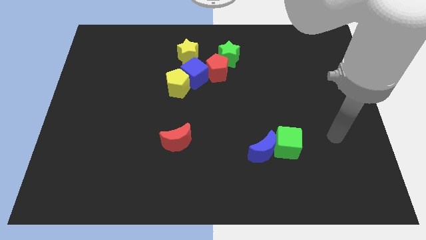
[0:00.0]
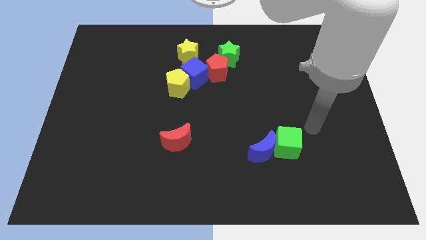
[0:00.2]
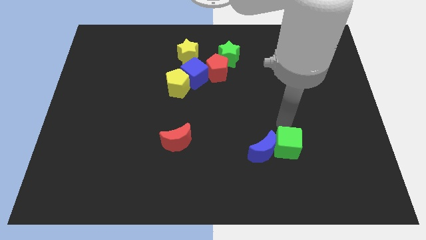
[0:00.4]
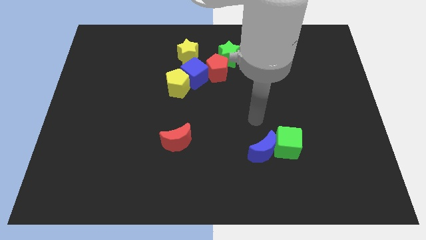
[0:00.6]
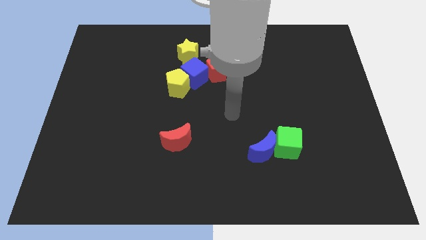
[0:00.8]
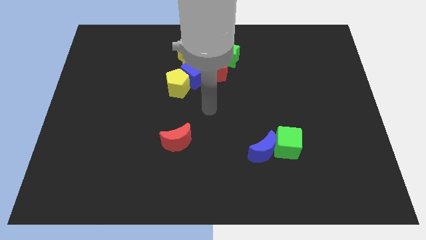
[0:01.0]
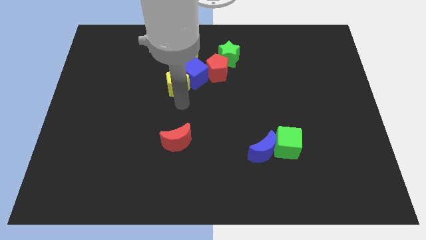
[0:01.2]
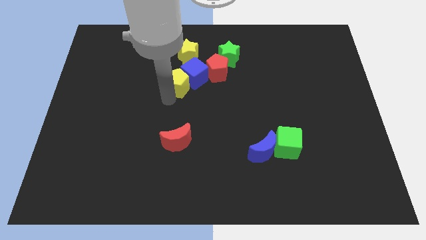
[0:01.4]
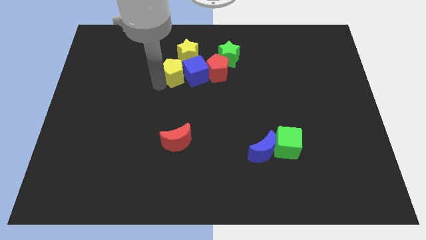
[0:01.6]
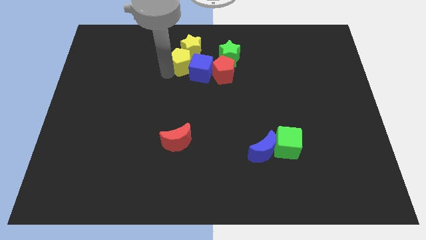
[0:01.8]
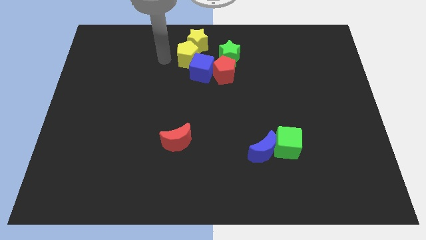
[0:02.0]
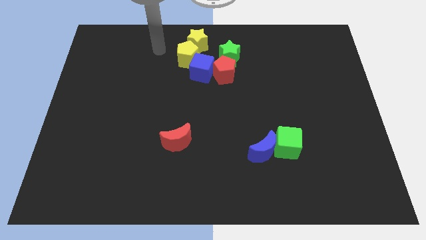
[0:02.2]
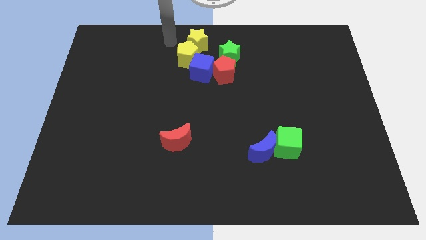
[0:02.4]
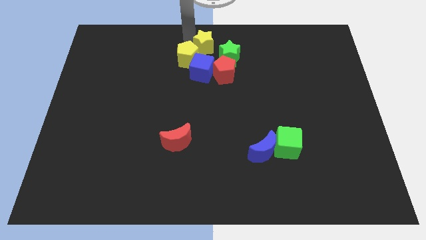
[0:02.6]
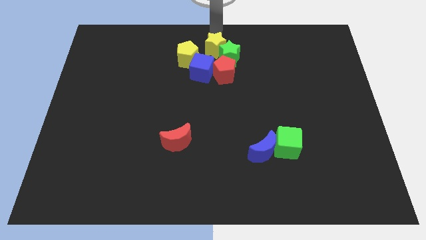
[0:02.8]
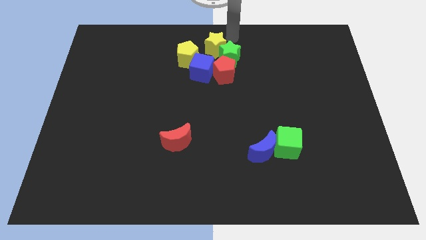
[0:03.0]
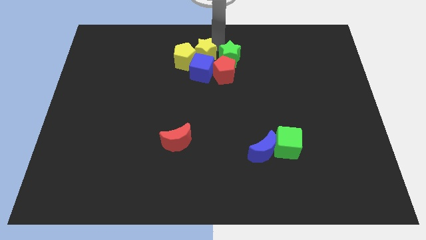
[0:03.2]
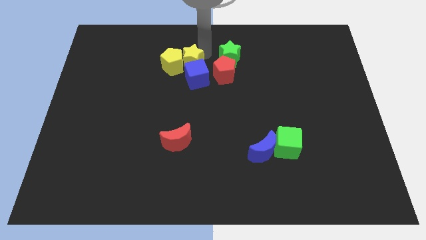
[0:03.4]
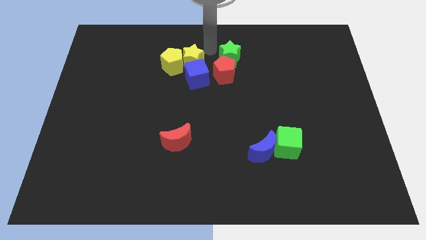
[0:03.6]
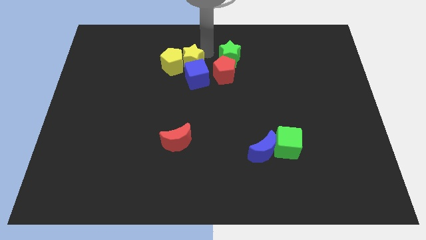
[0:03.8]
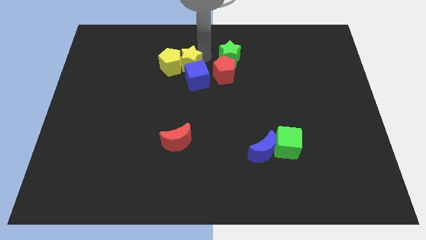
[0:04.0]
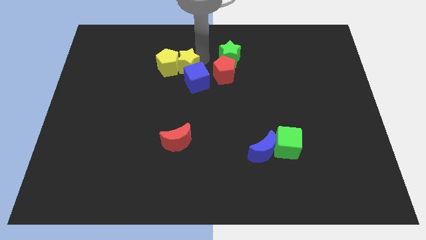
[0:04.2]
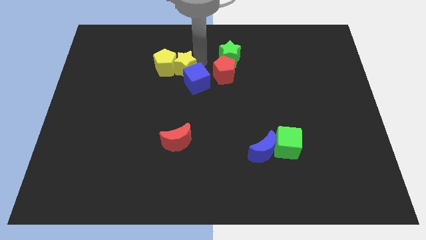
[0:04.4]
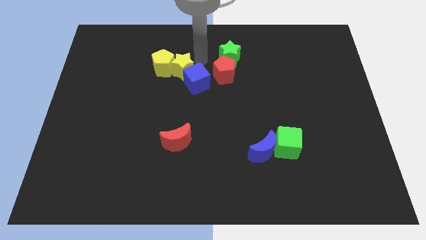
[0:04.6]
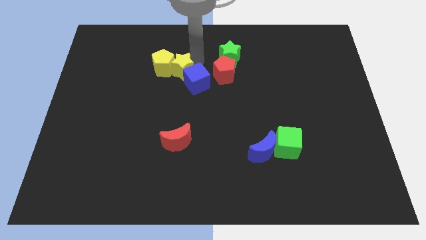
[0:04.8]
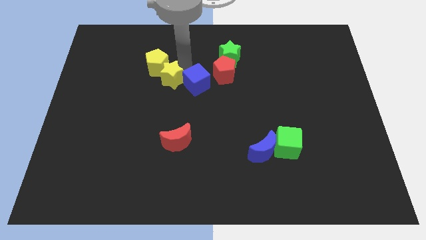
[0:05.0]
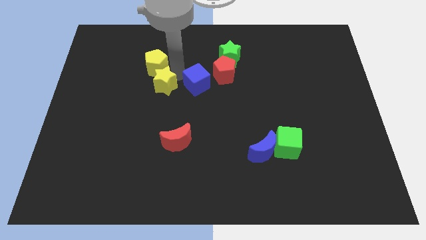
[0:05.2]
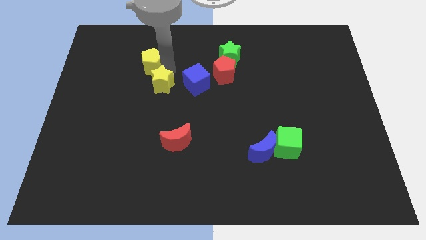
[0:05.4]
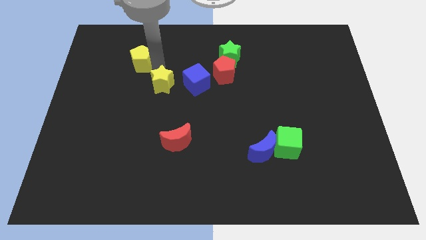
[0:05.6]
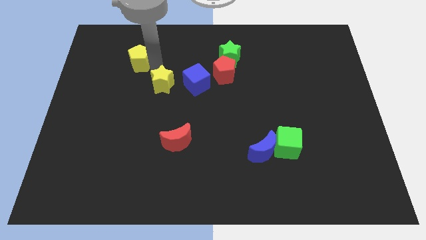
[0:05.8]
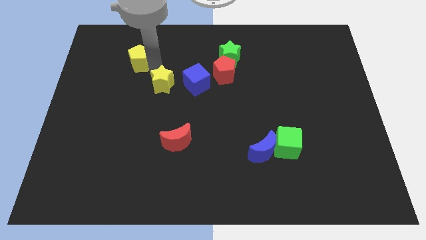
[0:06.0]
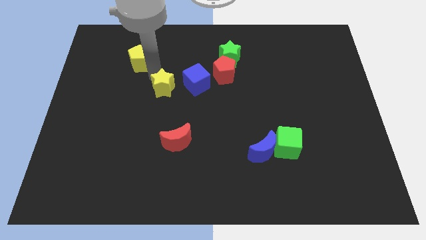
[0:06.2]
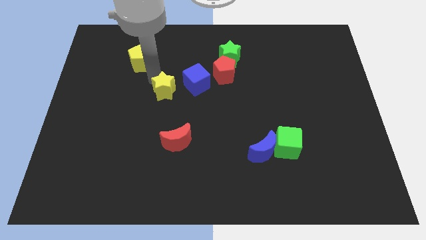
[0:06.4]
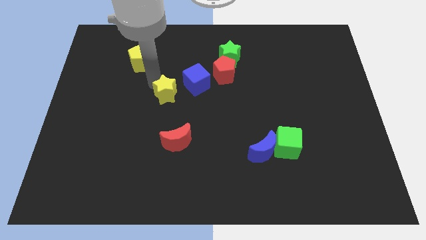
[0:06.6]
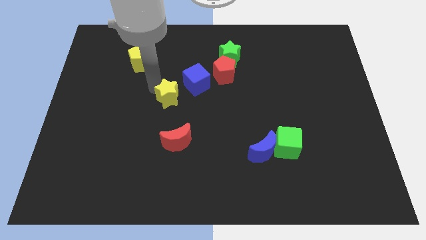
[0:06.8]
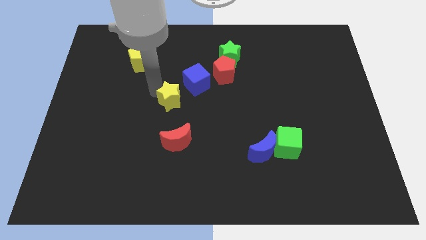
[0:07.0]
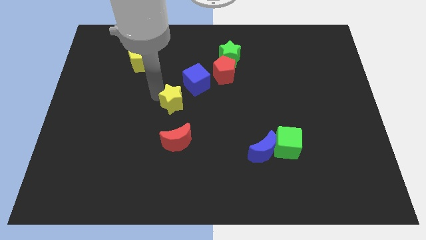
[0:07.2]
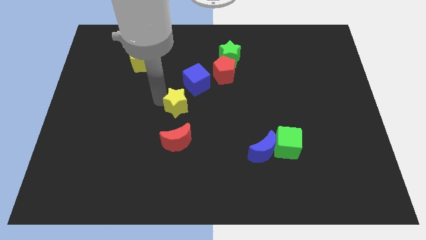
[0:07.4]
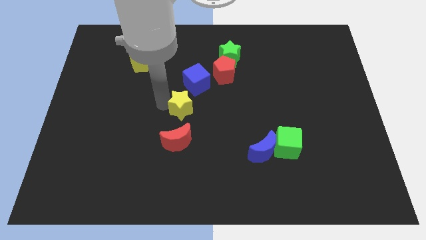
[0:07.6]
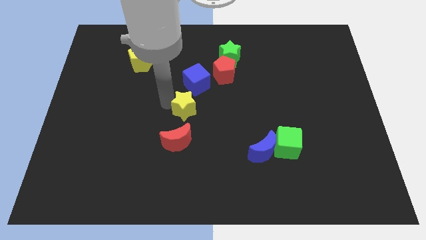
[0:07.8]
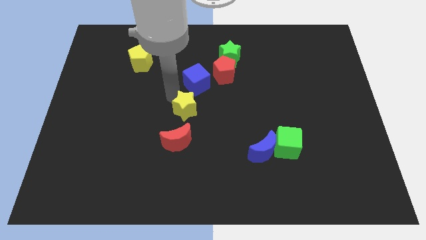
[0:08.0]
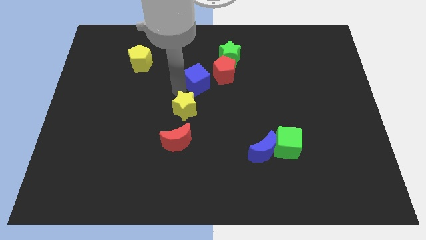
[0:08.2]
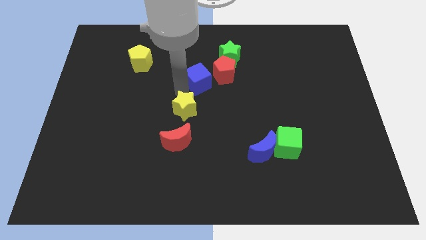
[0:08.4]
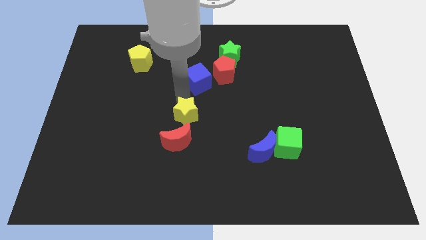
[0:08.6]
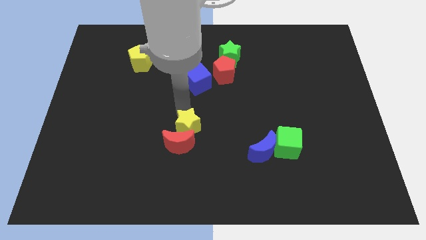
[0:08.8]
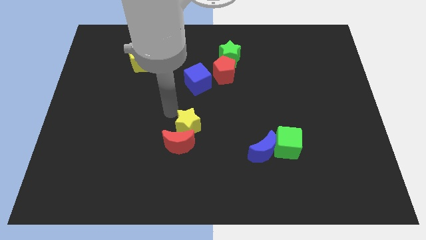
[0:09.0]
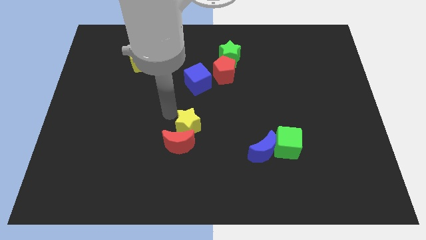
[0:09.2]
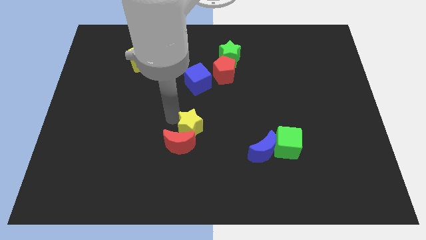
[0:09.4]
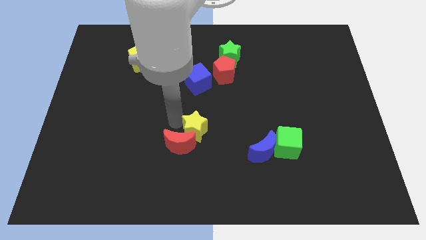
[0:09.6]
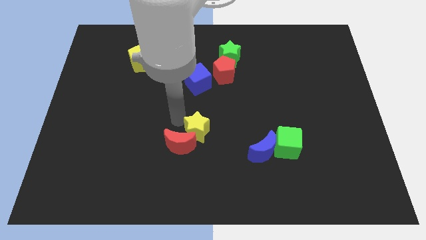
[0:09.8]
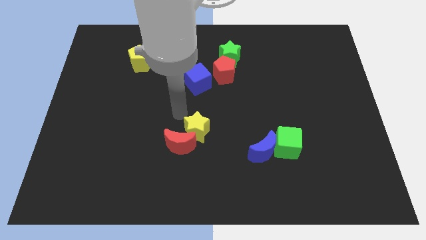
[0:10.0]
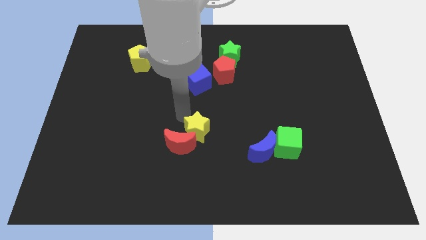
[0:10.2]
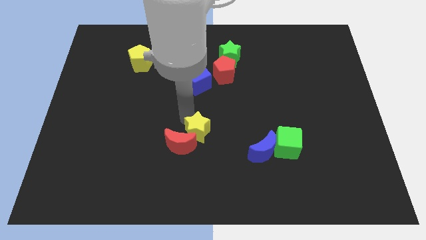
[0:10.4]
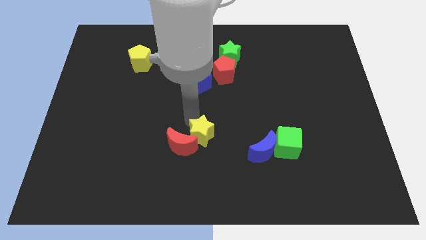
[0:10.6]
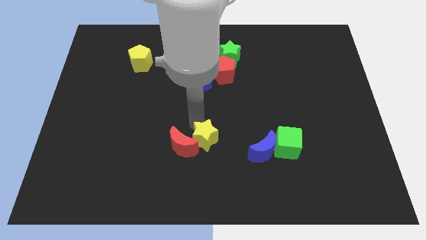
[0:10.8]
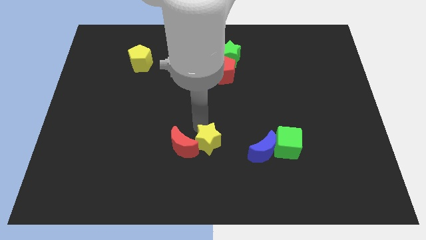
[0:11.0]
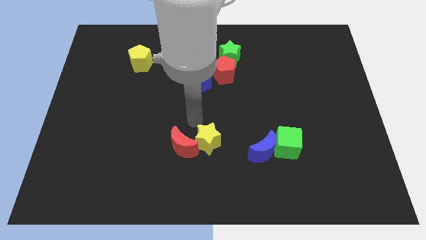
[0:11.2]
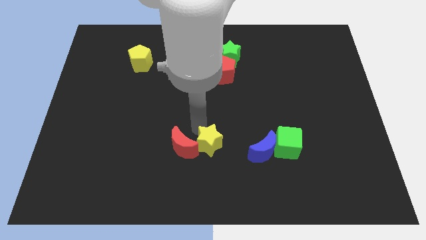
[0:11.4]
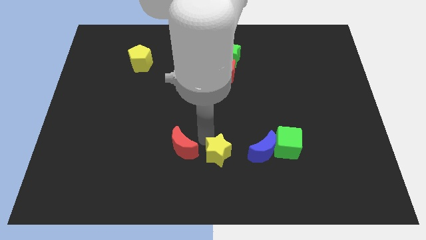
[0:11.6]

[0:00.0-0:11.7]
put the yellow star to the bottom
